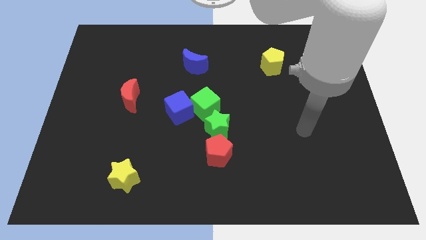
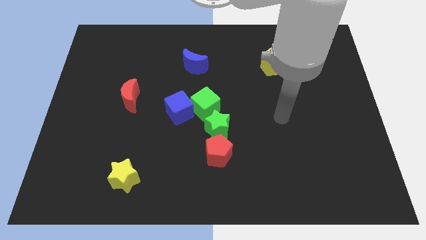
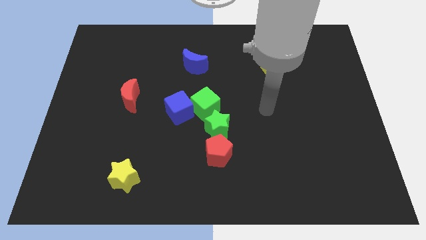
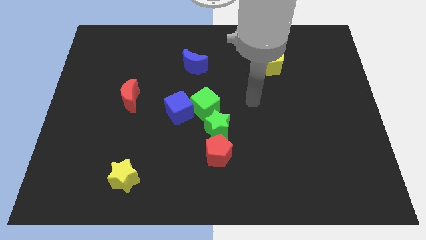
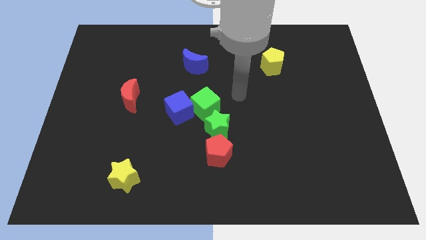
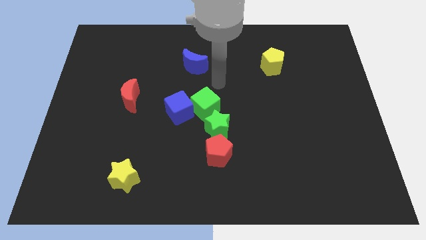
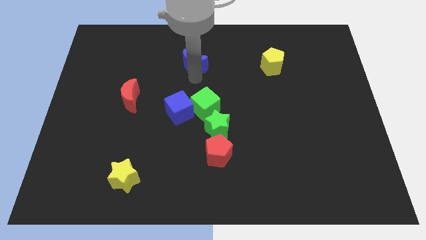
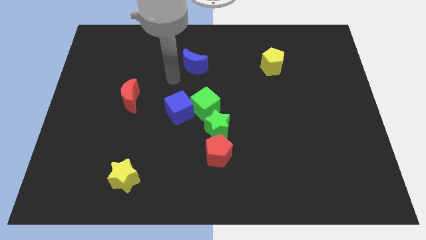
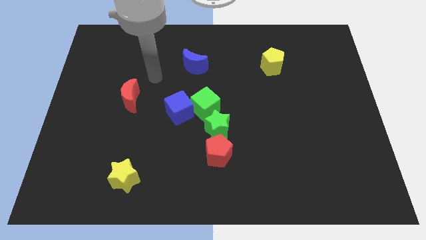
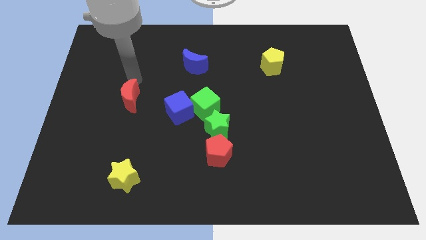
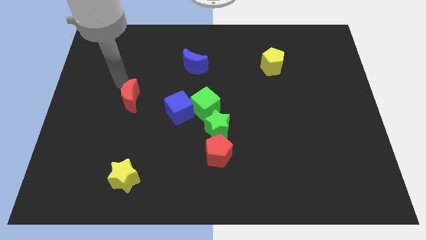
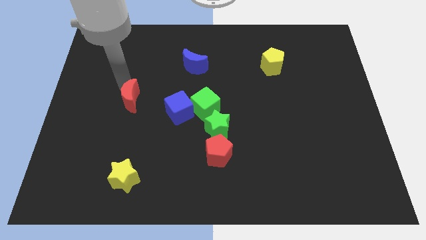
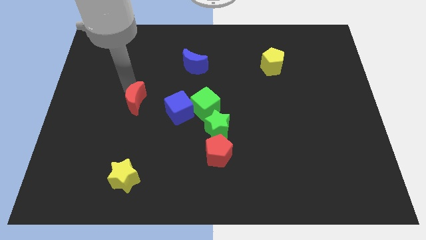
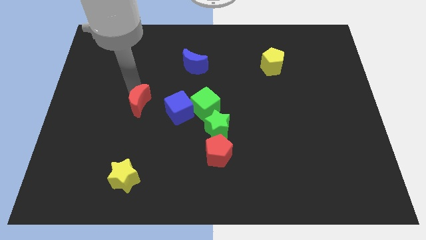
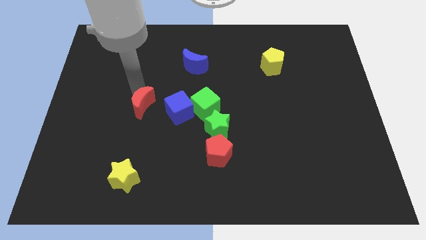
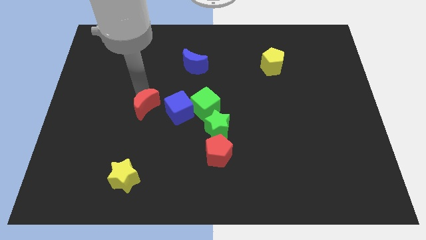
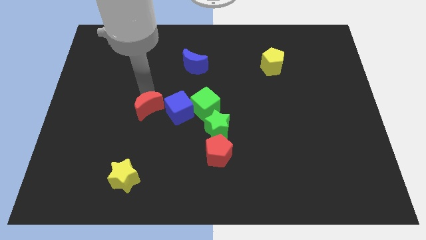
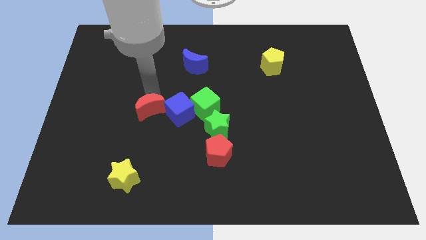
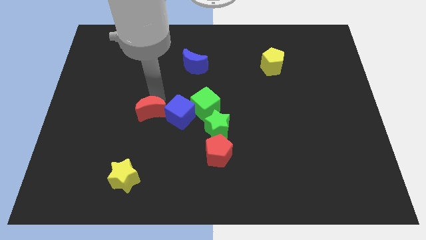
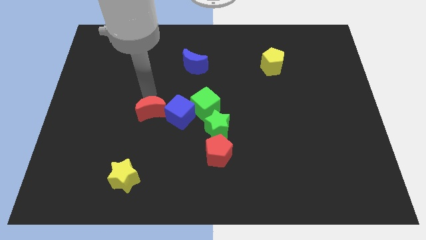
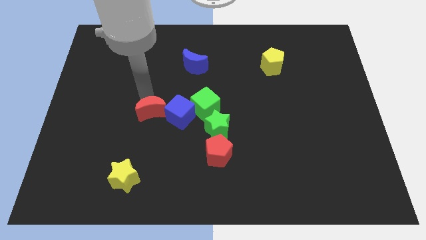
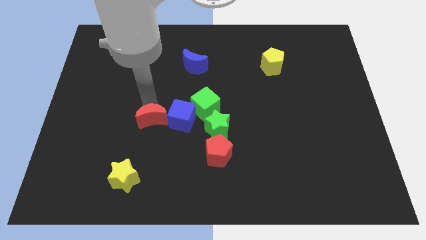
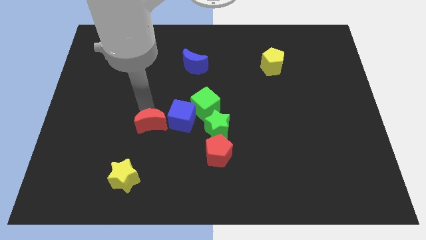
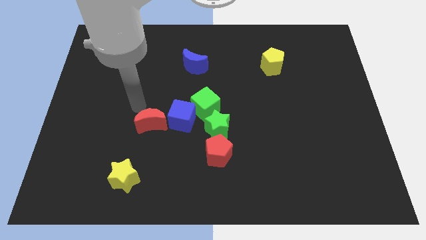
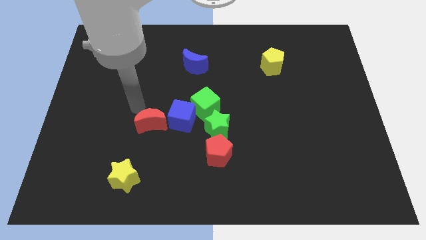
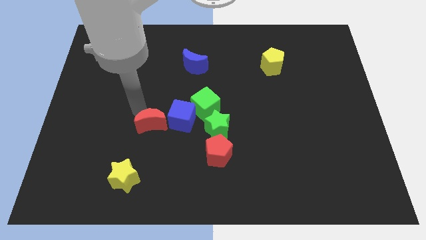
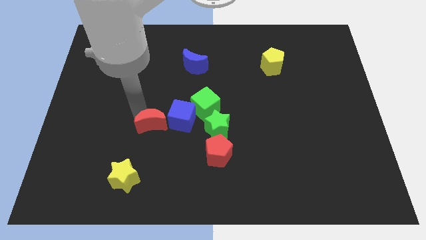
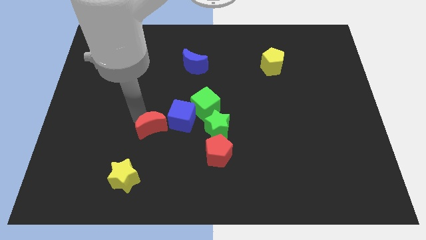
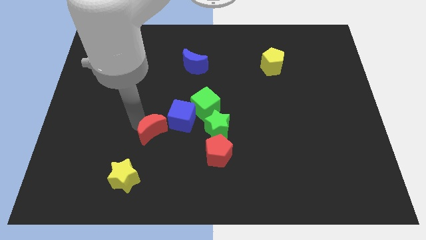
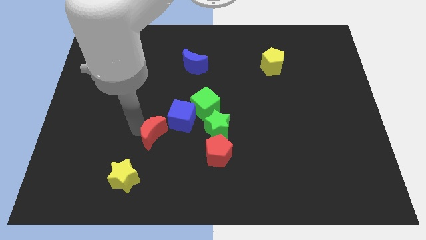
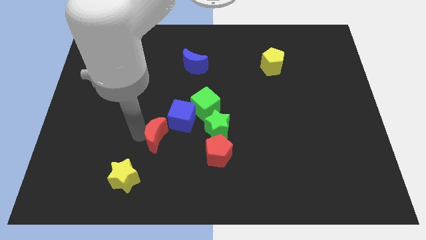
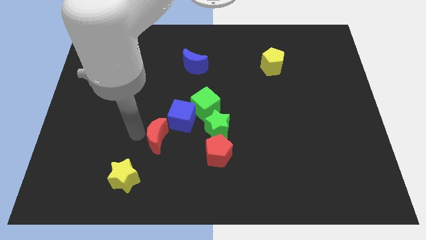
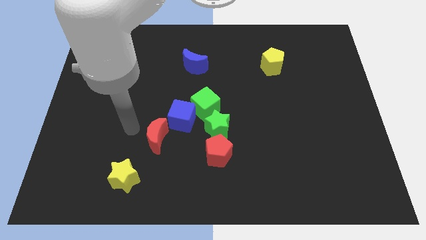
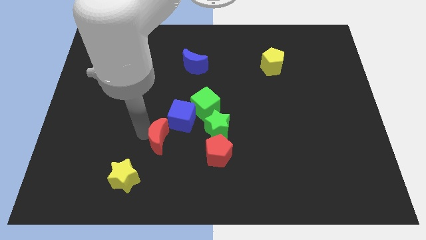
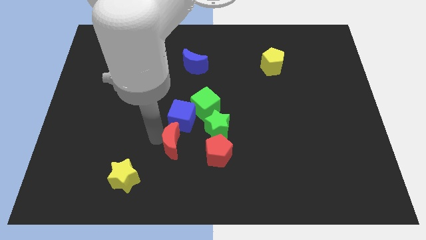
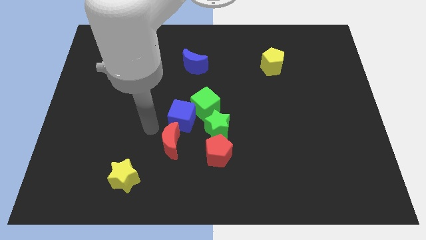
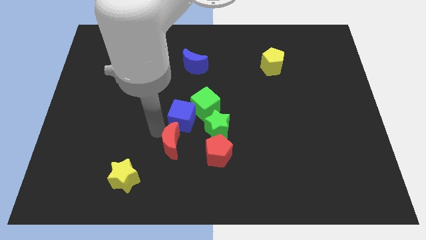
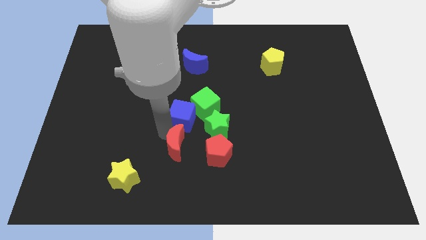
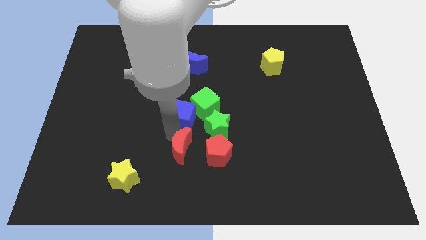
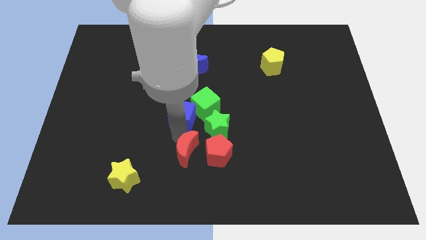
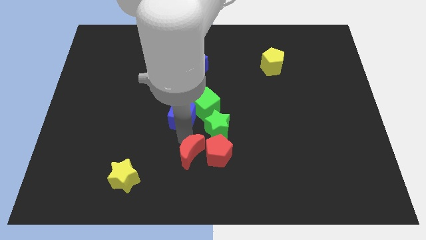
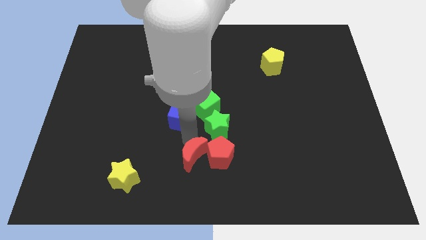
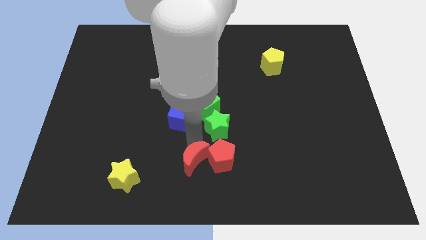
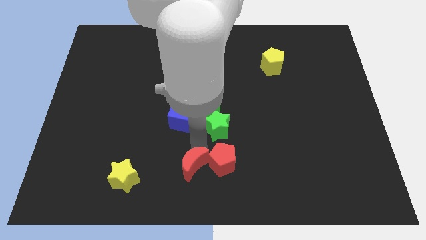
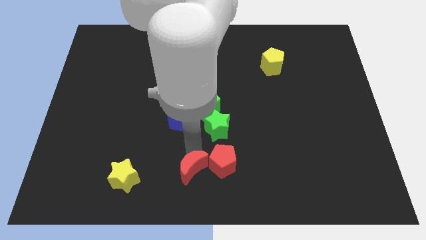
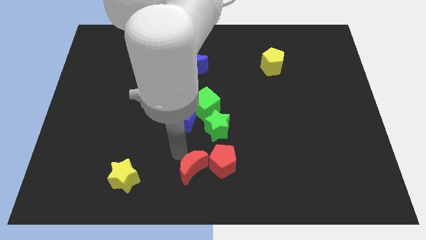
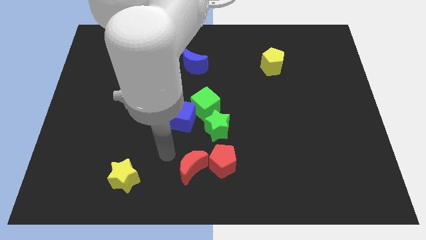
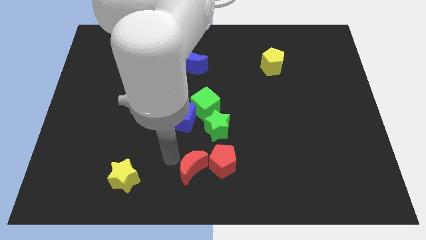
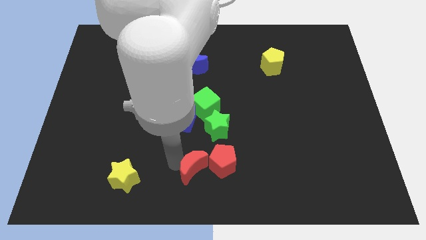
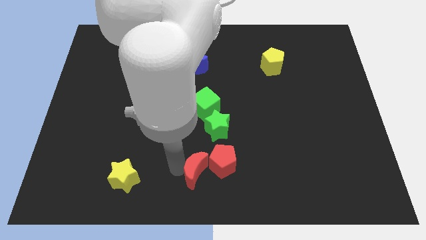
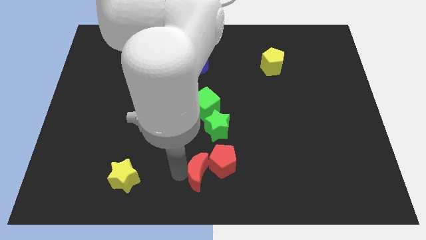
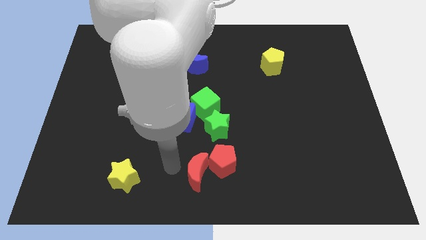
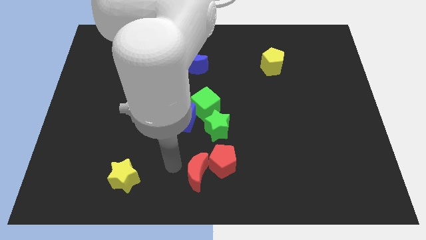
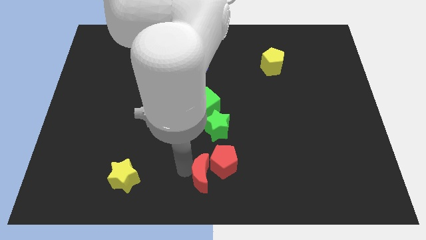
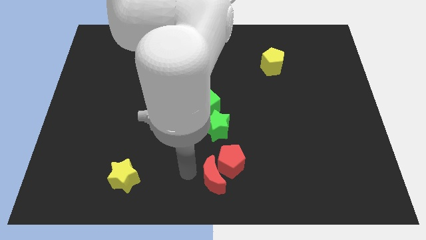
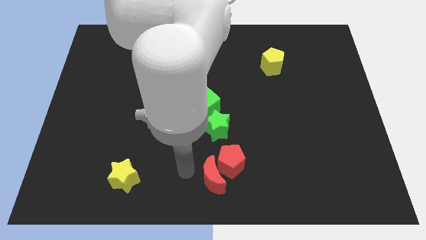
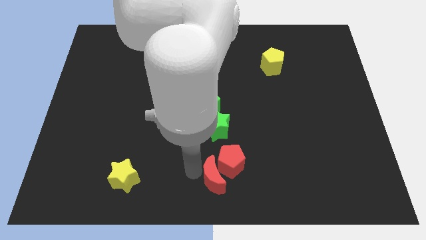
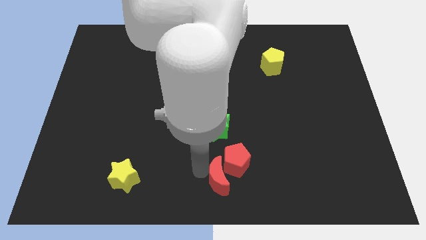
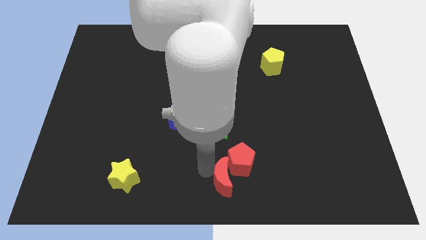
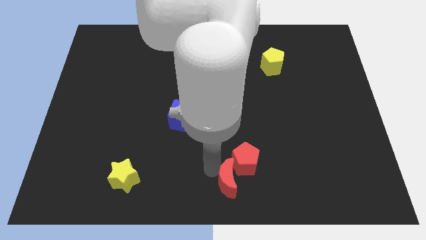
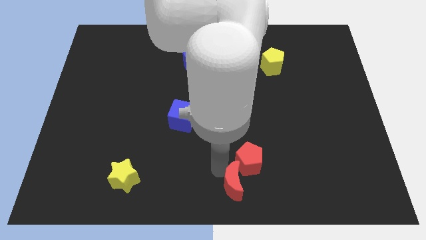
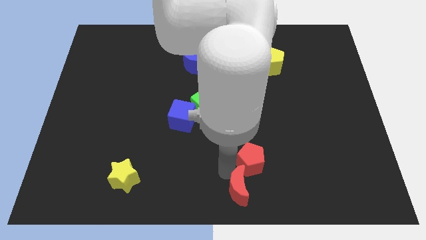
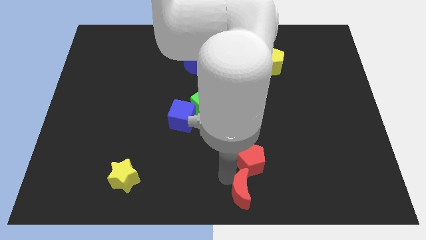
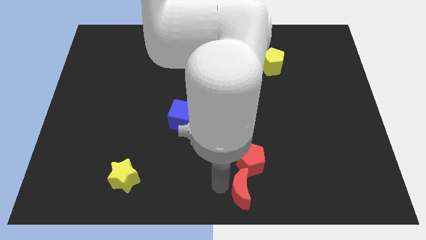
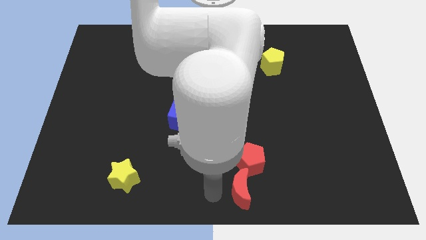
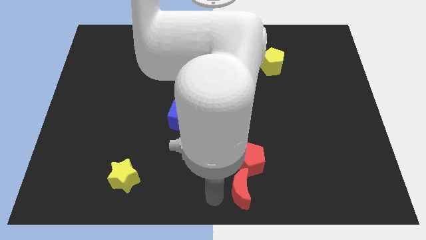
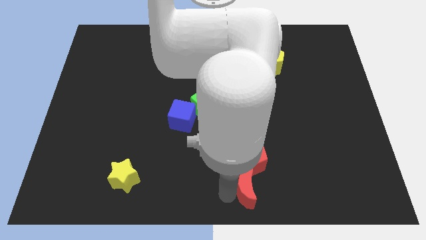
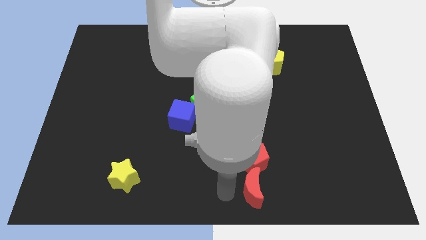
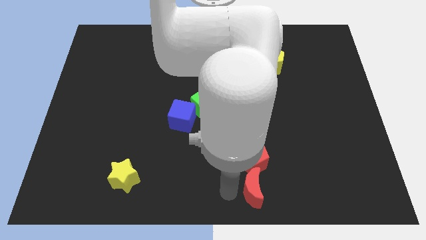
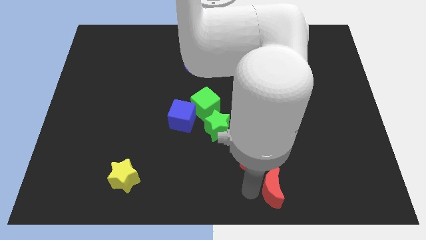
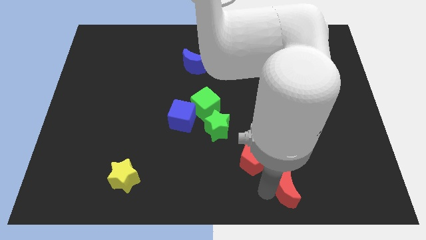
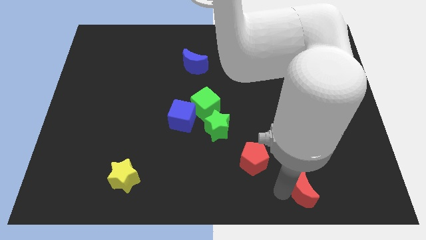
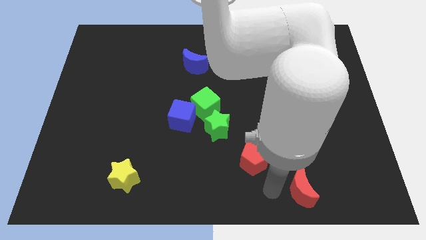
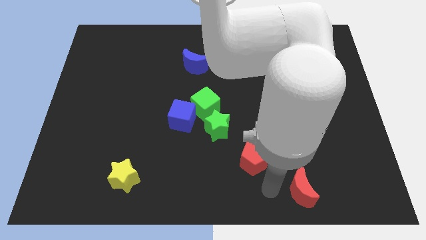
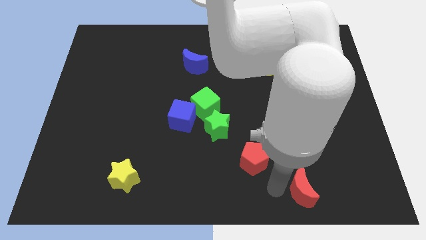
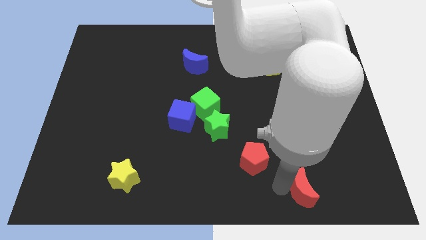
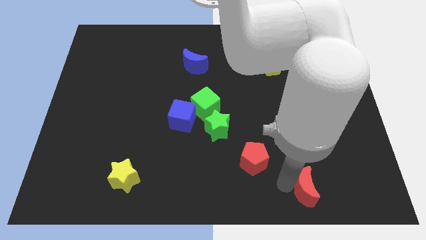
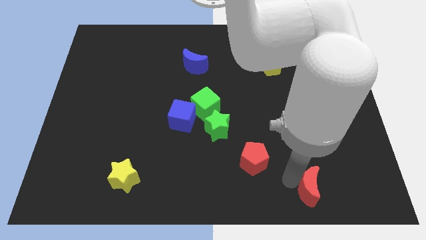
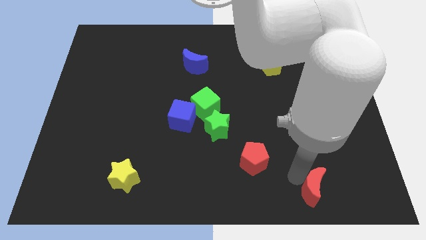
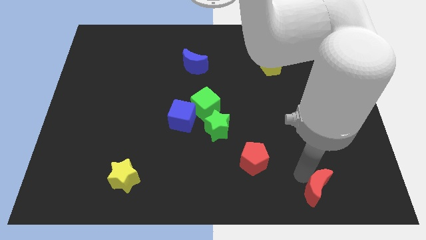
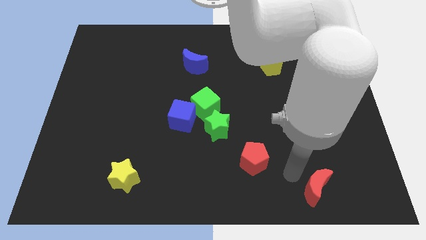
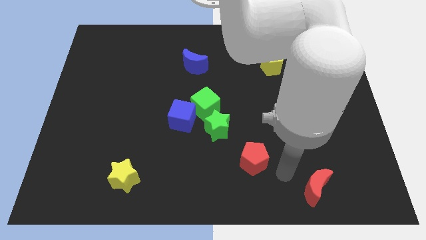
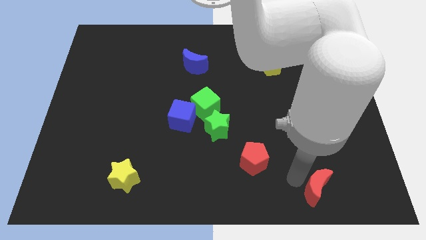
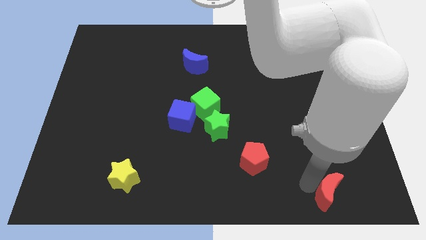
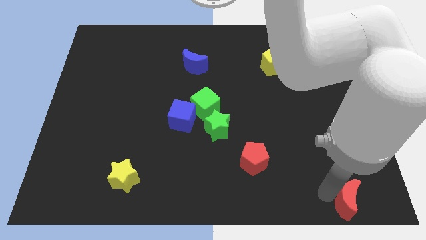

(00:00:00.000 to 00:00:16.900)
push the red moon to the lower right corner
